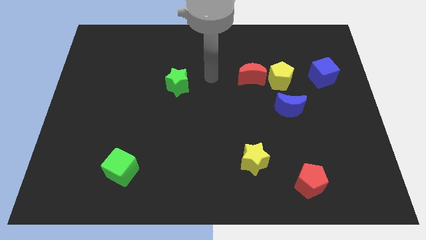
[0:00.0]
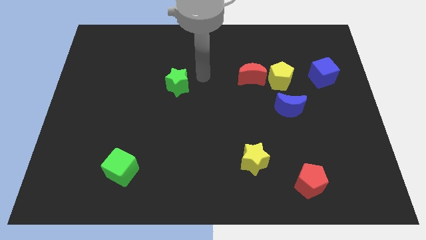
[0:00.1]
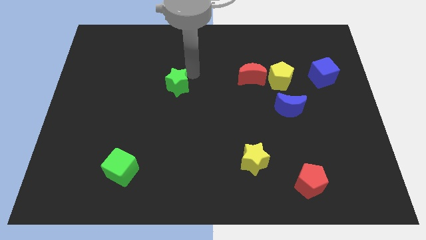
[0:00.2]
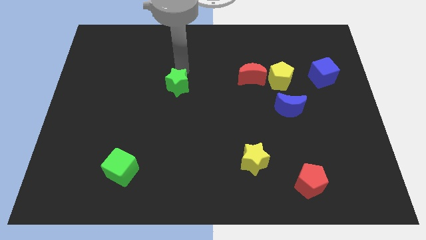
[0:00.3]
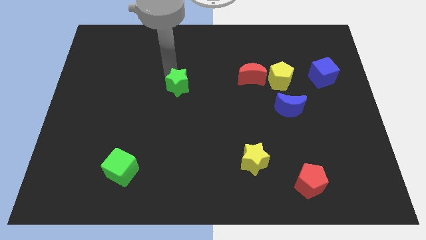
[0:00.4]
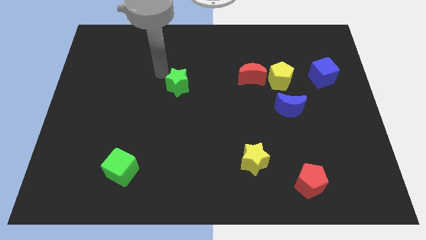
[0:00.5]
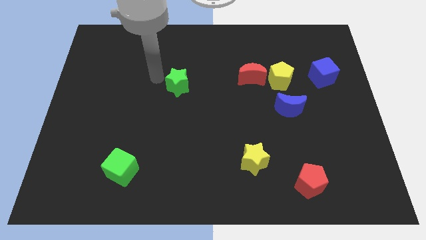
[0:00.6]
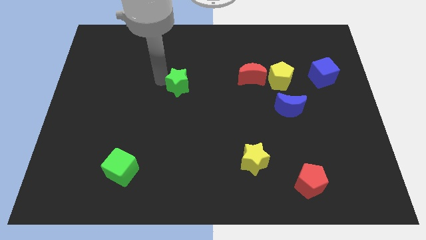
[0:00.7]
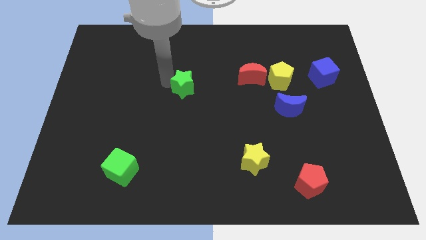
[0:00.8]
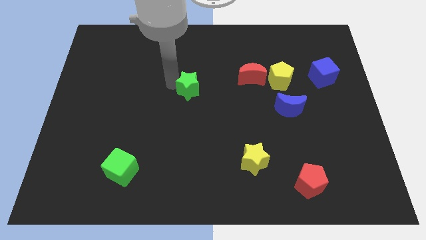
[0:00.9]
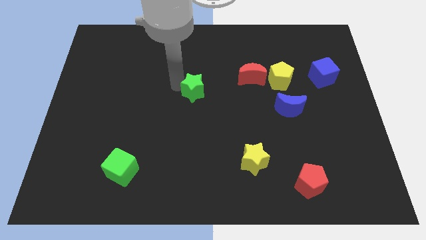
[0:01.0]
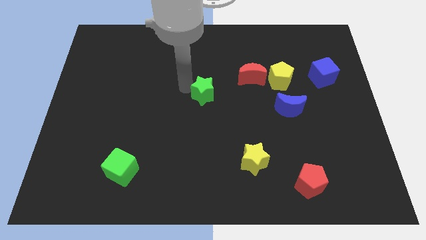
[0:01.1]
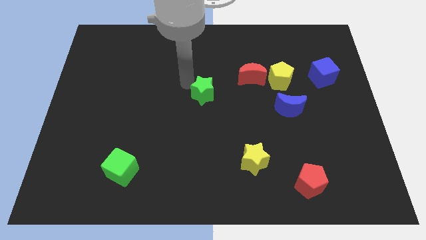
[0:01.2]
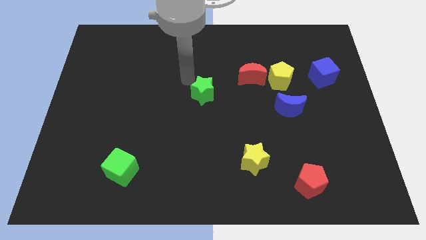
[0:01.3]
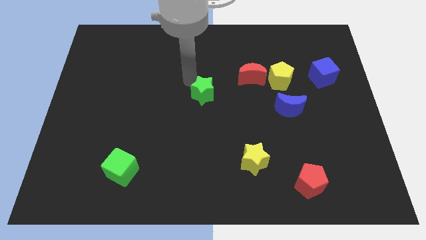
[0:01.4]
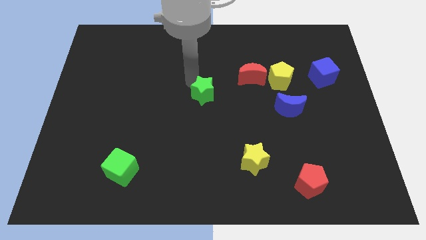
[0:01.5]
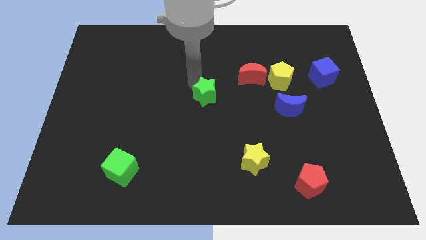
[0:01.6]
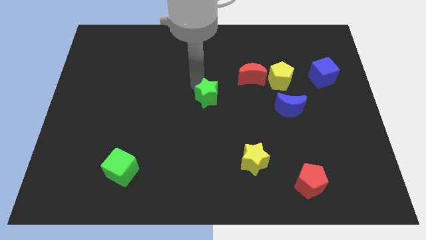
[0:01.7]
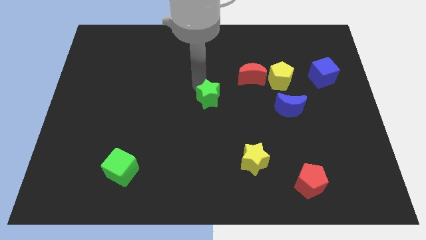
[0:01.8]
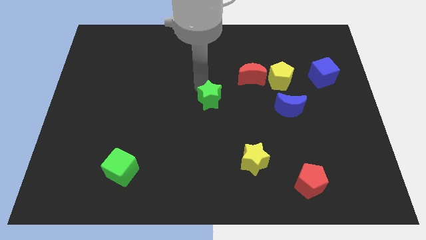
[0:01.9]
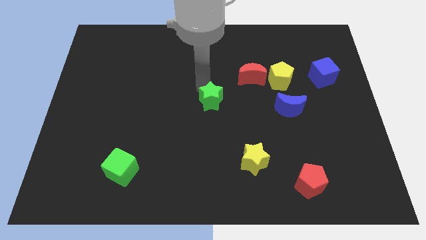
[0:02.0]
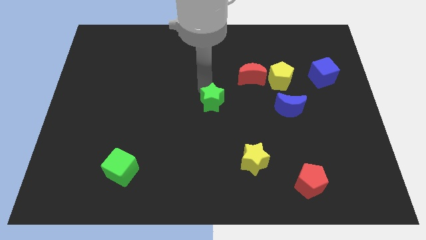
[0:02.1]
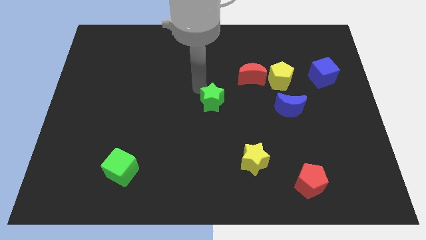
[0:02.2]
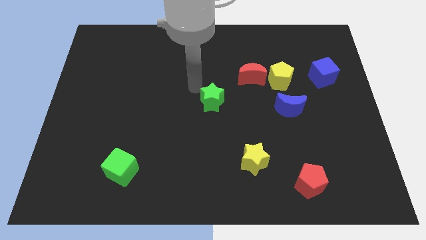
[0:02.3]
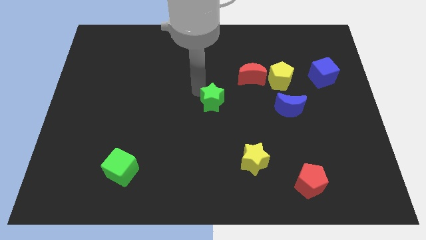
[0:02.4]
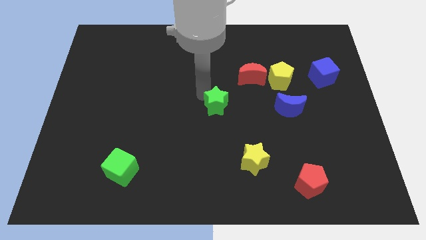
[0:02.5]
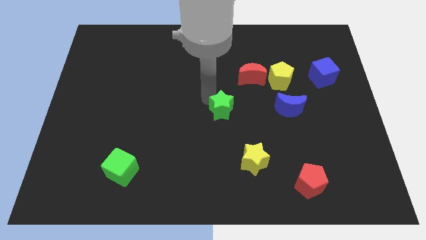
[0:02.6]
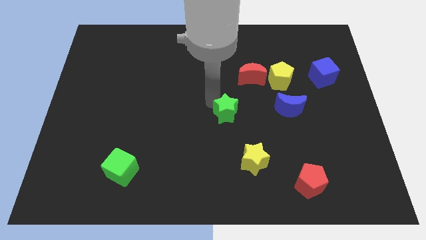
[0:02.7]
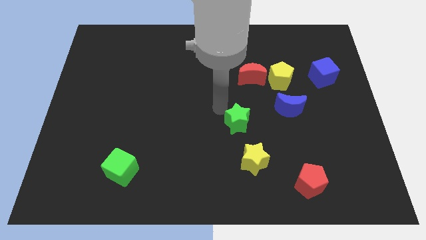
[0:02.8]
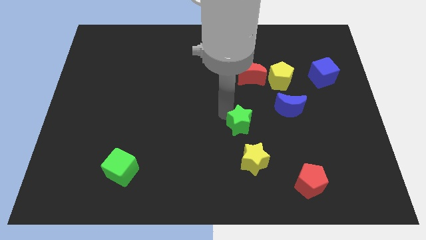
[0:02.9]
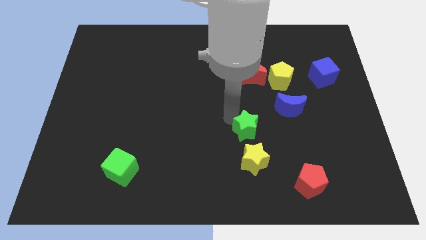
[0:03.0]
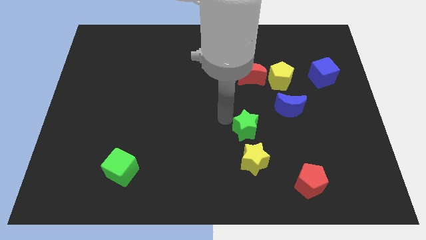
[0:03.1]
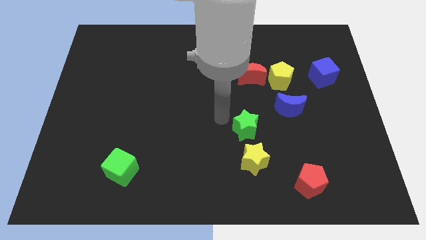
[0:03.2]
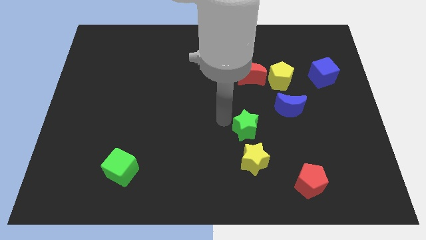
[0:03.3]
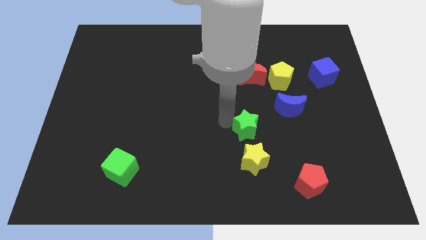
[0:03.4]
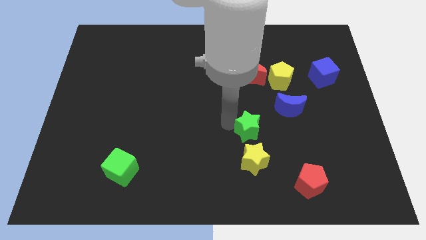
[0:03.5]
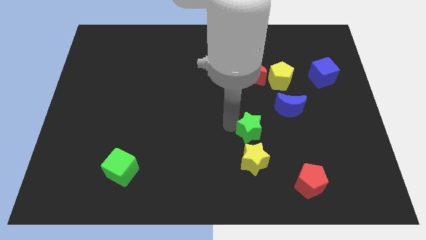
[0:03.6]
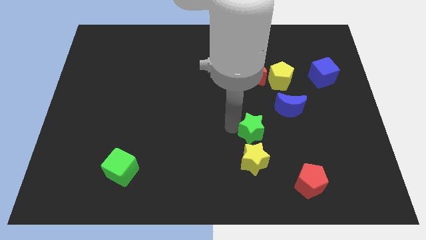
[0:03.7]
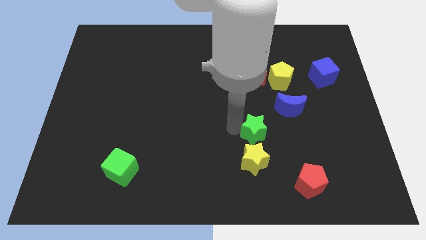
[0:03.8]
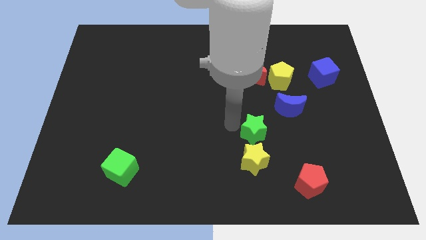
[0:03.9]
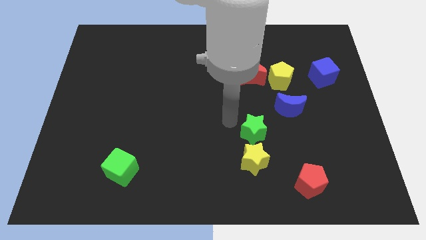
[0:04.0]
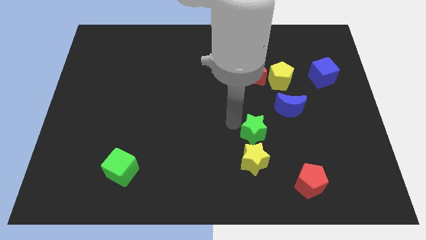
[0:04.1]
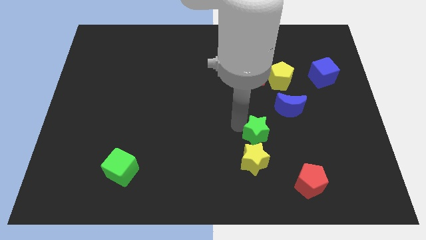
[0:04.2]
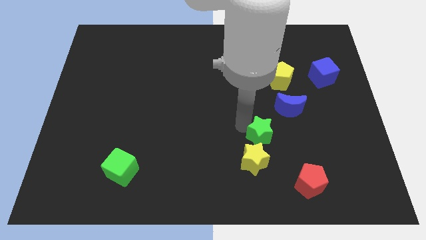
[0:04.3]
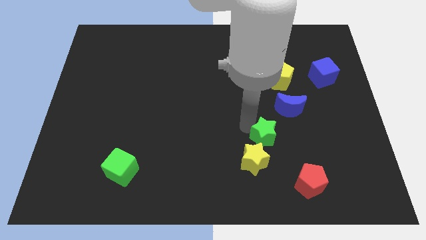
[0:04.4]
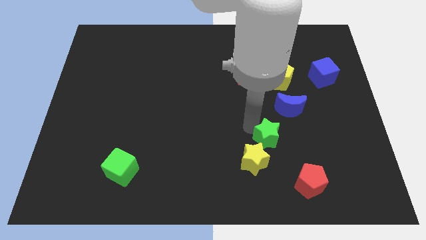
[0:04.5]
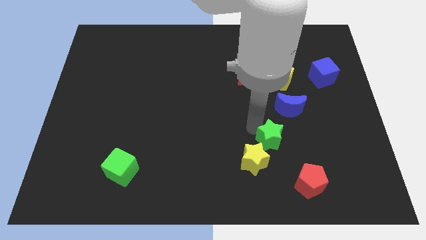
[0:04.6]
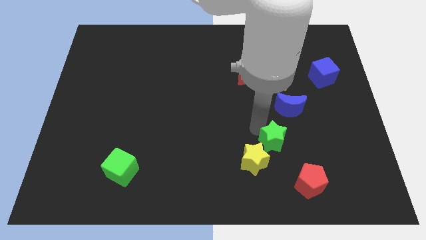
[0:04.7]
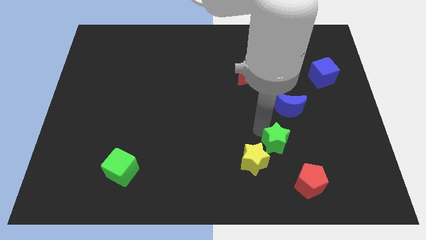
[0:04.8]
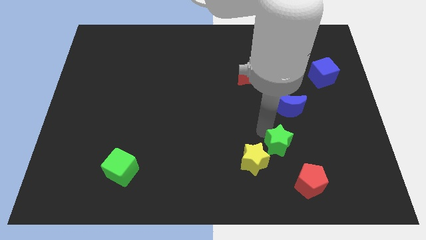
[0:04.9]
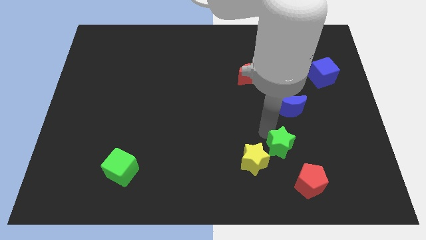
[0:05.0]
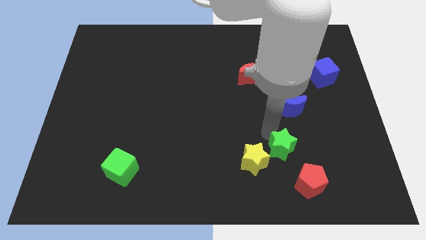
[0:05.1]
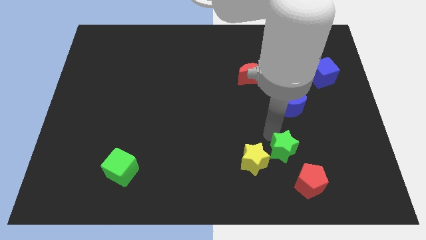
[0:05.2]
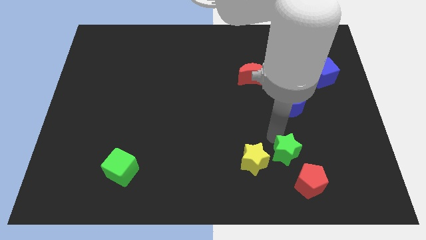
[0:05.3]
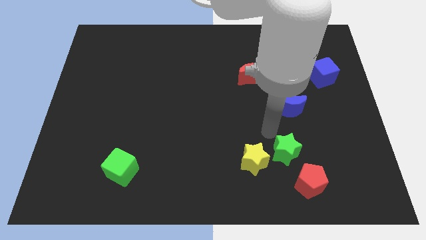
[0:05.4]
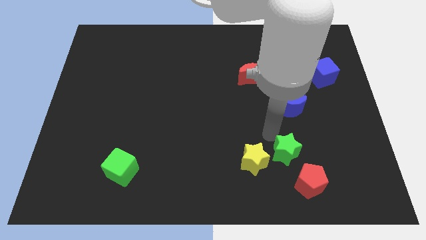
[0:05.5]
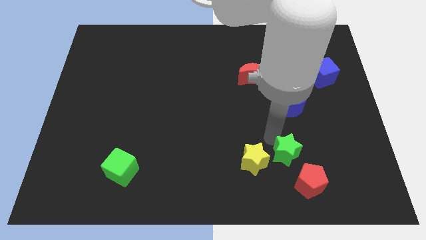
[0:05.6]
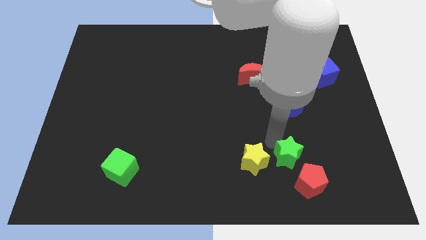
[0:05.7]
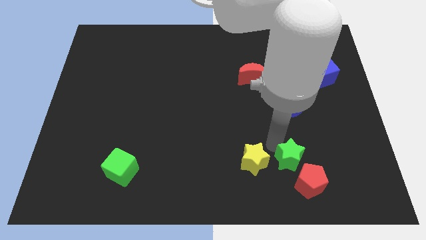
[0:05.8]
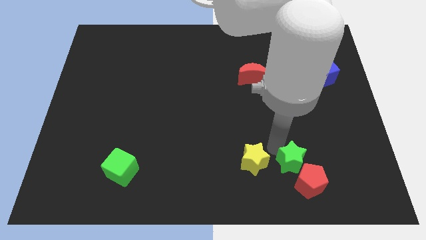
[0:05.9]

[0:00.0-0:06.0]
move the green star towards the red pentagon

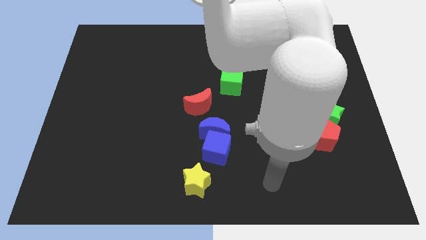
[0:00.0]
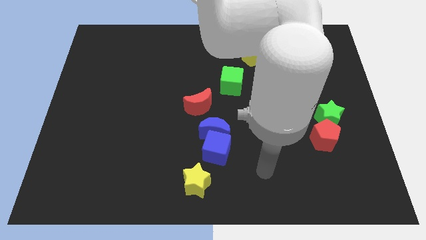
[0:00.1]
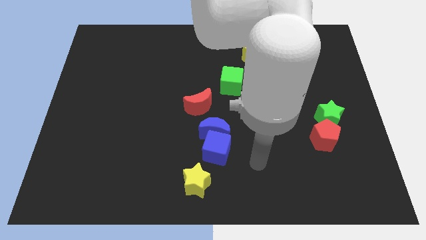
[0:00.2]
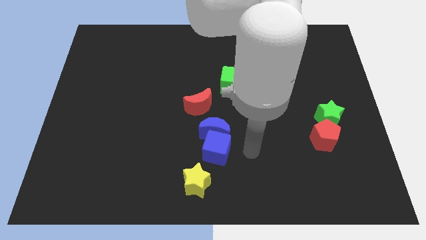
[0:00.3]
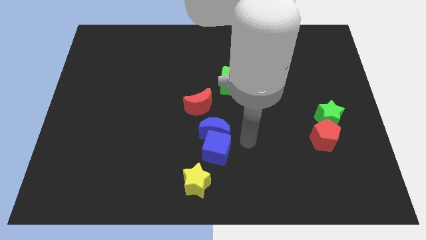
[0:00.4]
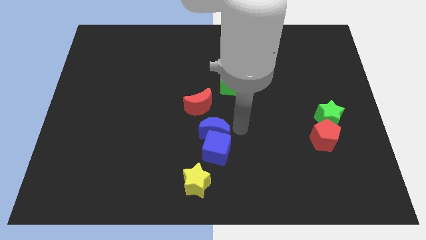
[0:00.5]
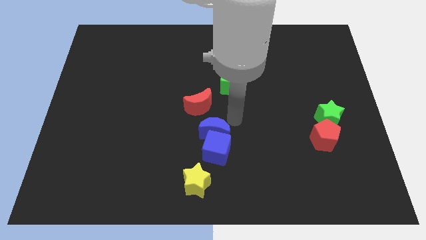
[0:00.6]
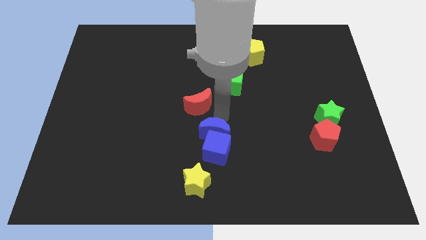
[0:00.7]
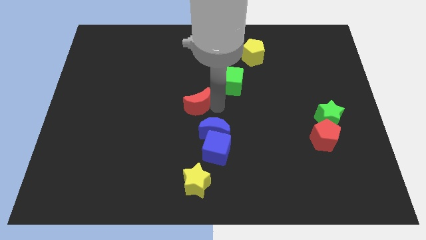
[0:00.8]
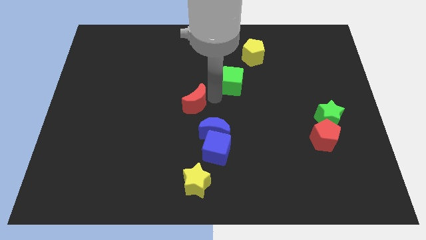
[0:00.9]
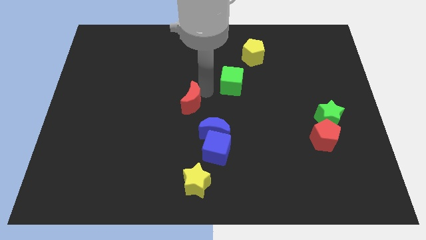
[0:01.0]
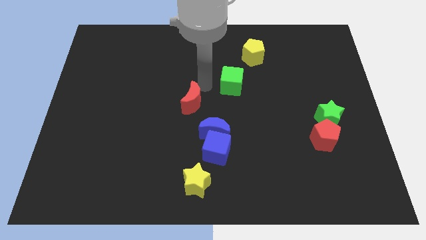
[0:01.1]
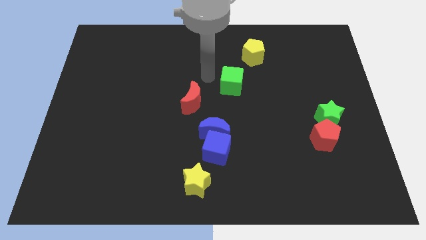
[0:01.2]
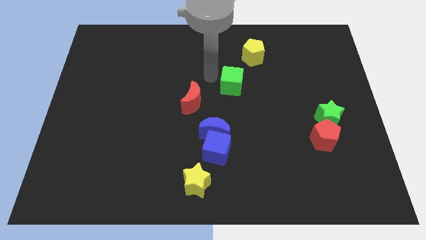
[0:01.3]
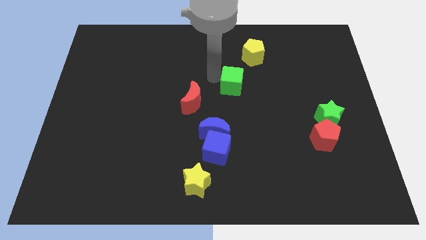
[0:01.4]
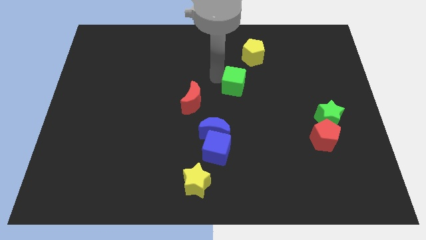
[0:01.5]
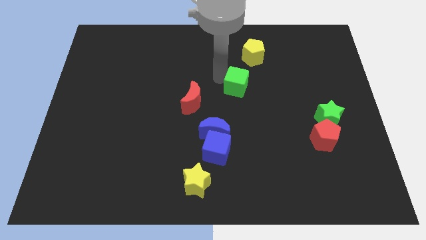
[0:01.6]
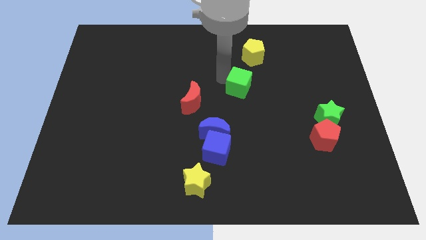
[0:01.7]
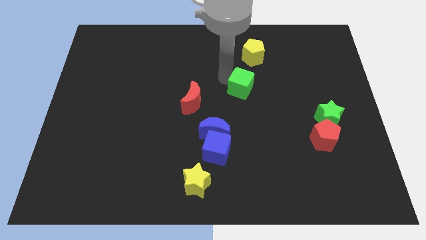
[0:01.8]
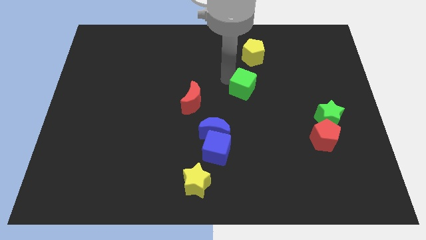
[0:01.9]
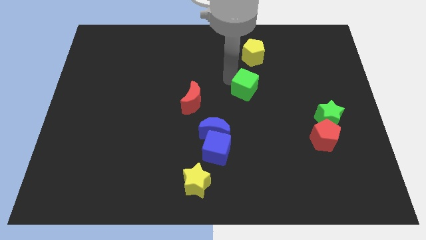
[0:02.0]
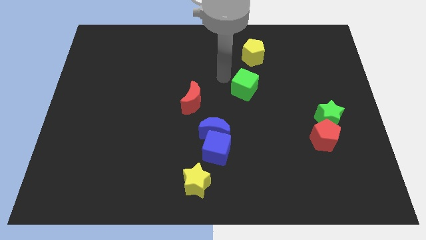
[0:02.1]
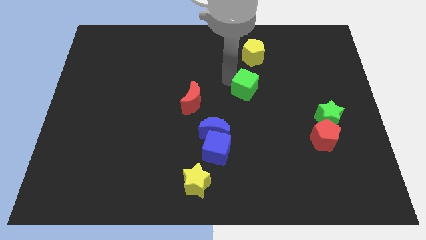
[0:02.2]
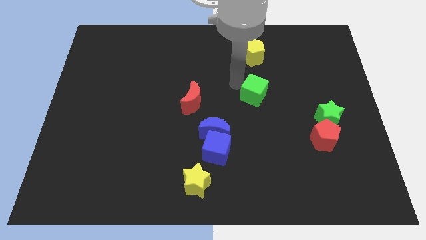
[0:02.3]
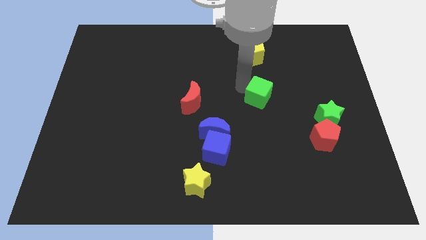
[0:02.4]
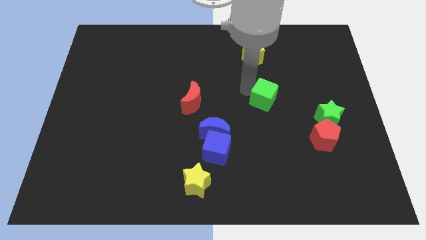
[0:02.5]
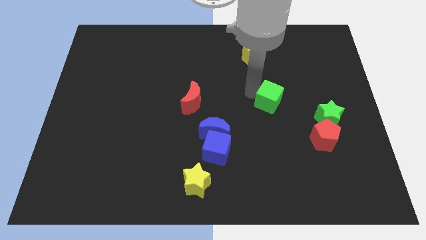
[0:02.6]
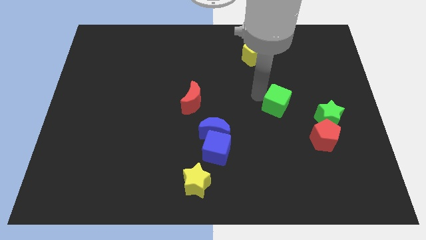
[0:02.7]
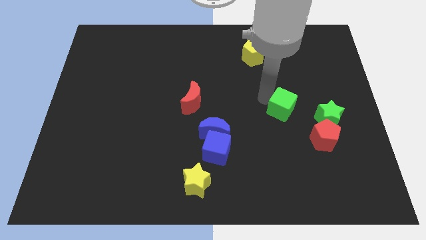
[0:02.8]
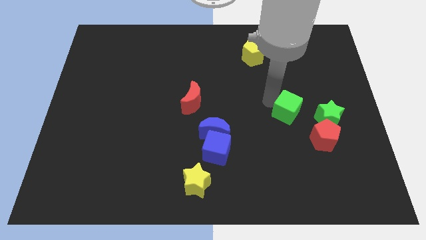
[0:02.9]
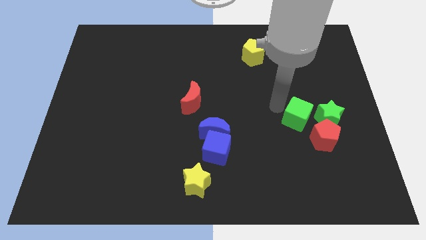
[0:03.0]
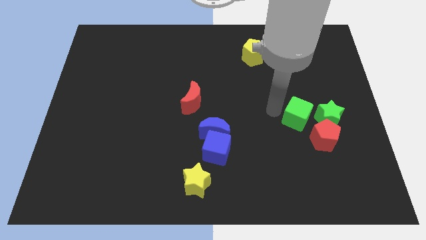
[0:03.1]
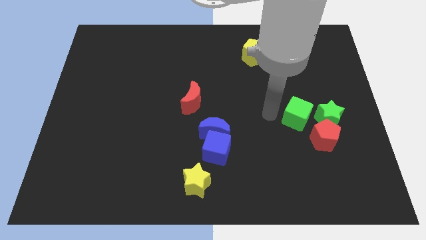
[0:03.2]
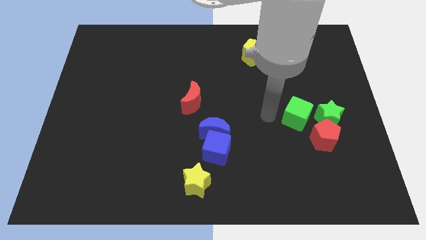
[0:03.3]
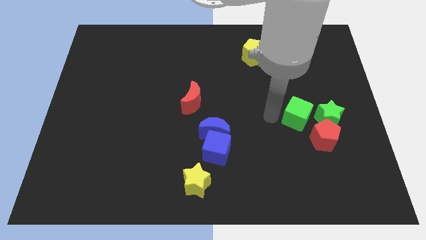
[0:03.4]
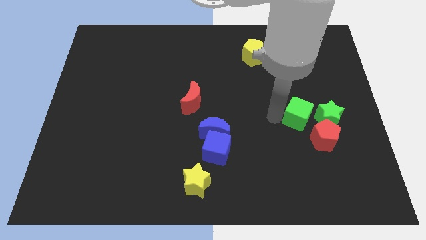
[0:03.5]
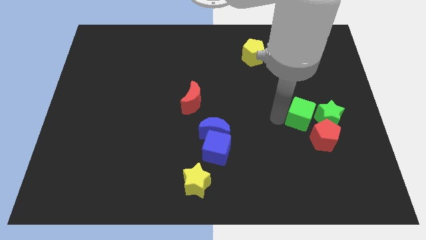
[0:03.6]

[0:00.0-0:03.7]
put the green cube close to the green star
